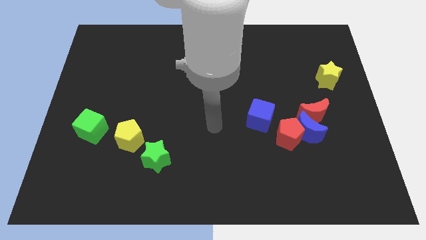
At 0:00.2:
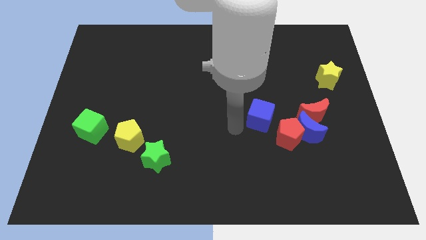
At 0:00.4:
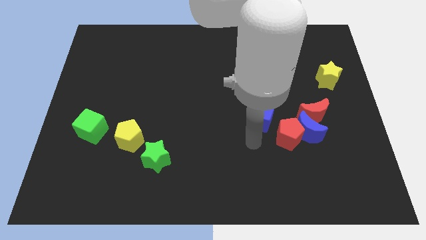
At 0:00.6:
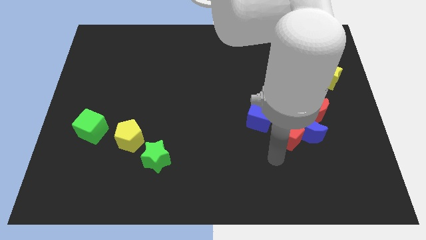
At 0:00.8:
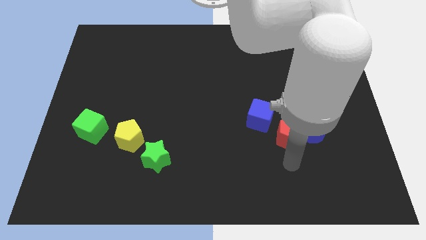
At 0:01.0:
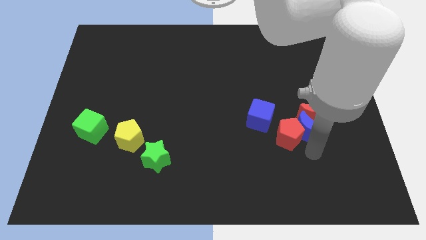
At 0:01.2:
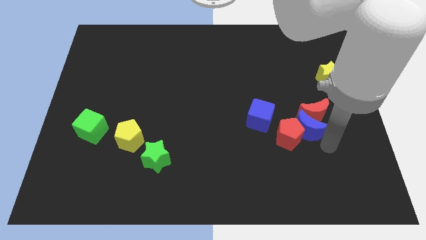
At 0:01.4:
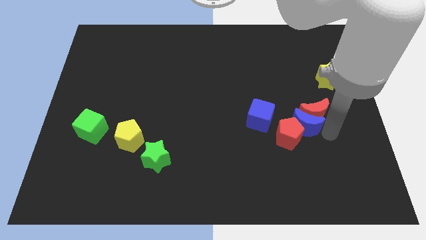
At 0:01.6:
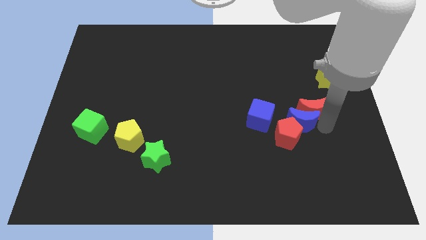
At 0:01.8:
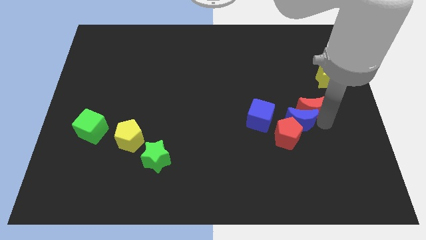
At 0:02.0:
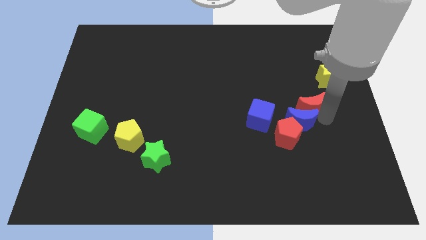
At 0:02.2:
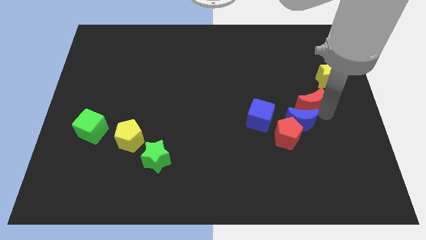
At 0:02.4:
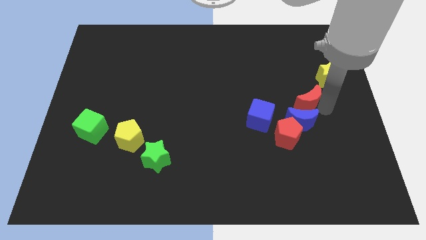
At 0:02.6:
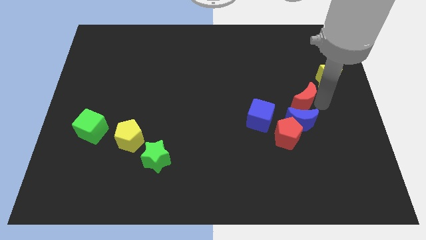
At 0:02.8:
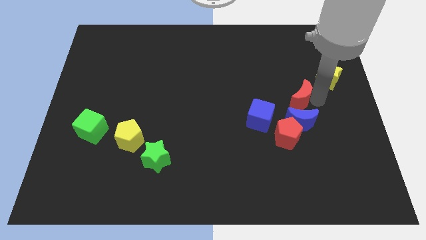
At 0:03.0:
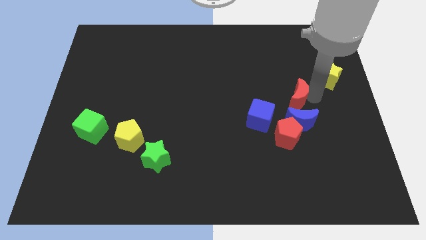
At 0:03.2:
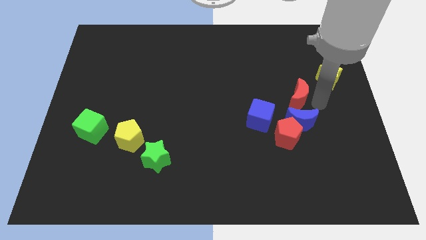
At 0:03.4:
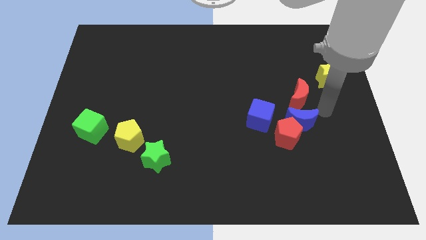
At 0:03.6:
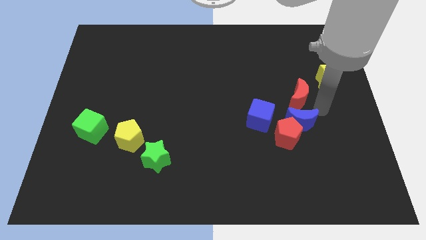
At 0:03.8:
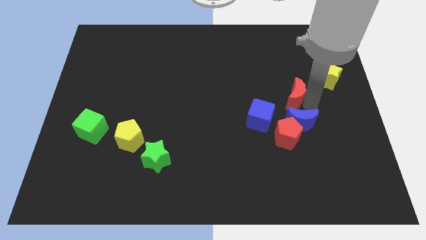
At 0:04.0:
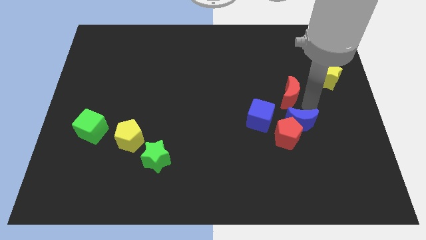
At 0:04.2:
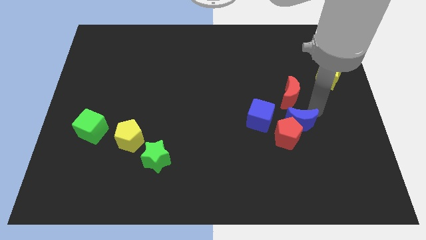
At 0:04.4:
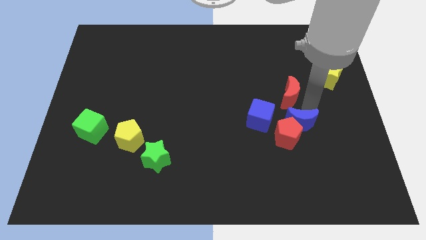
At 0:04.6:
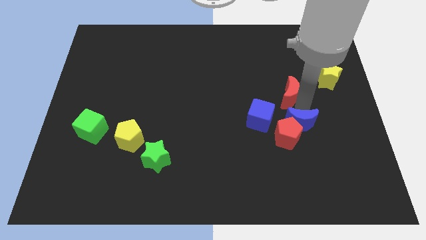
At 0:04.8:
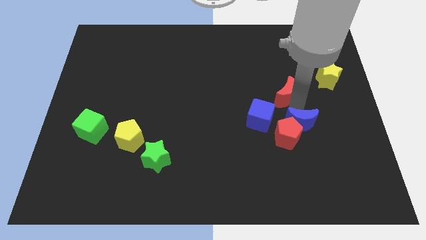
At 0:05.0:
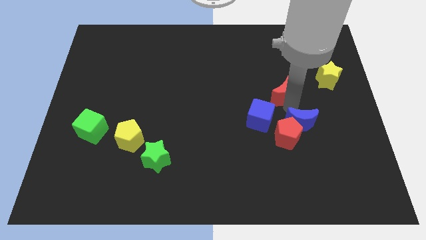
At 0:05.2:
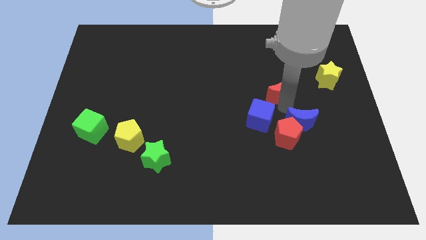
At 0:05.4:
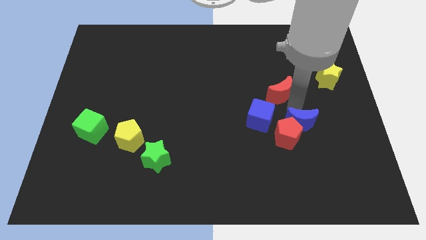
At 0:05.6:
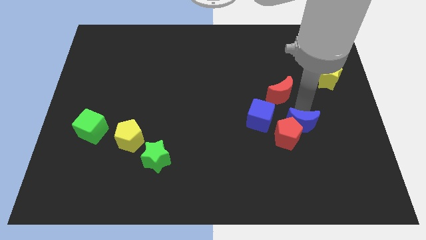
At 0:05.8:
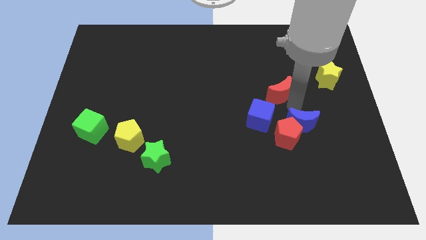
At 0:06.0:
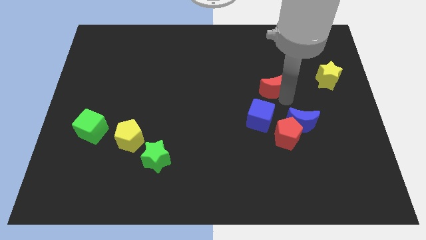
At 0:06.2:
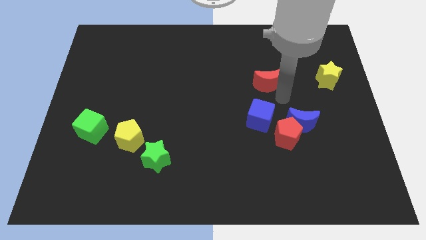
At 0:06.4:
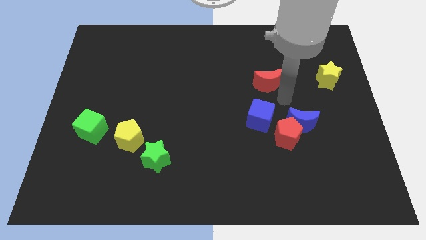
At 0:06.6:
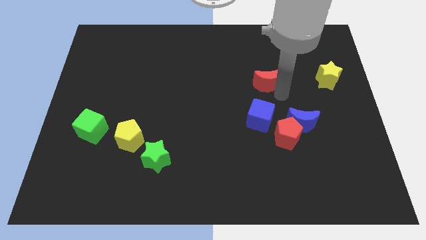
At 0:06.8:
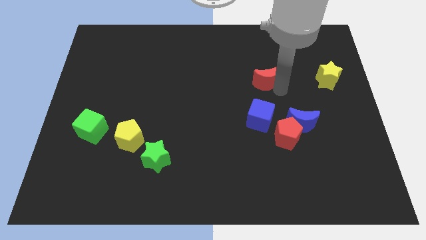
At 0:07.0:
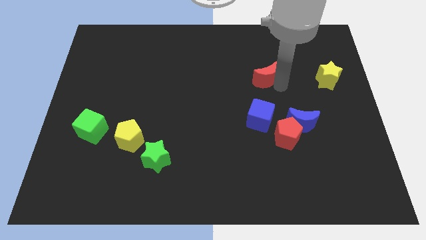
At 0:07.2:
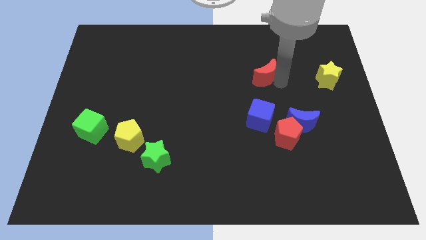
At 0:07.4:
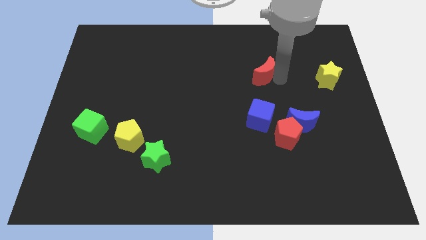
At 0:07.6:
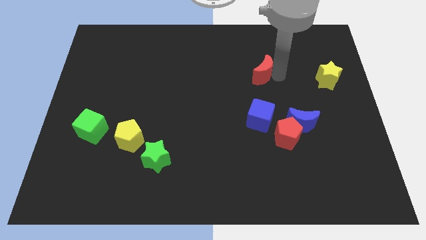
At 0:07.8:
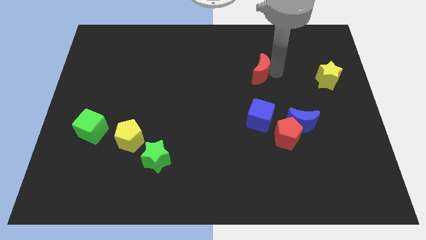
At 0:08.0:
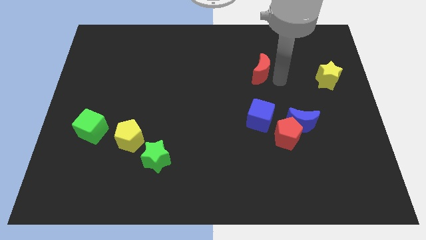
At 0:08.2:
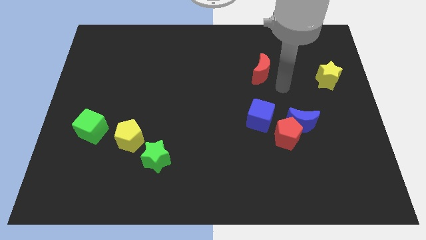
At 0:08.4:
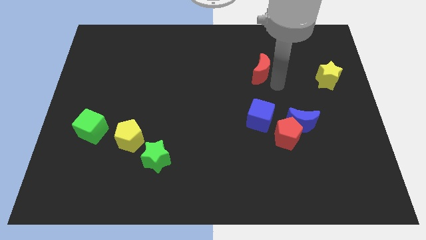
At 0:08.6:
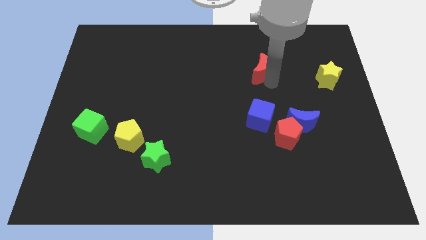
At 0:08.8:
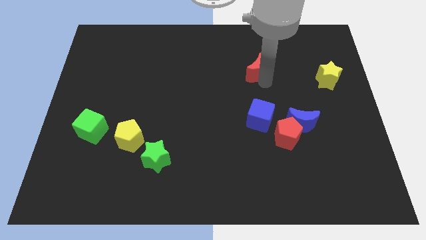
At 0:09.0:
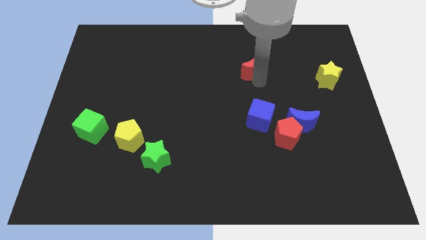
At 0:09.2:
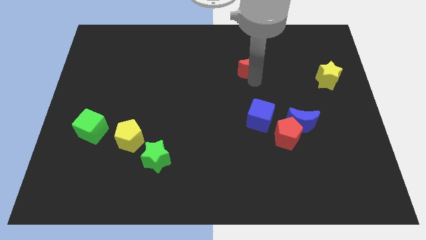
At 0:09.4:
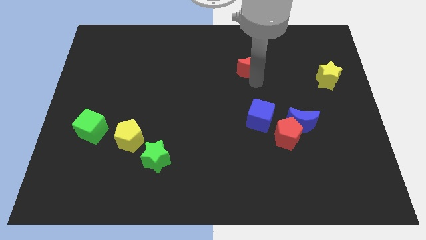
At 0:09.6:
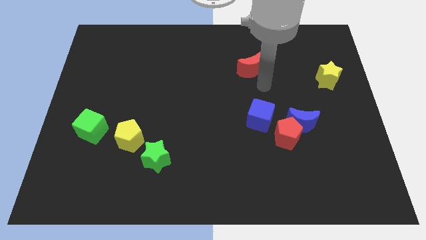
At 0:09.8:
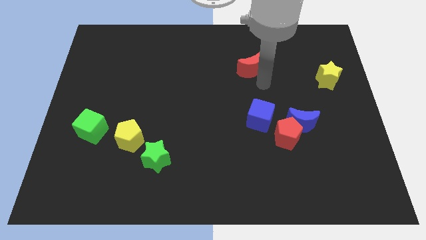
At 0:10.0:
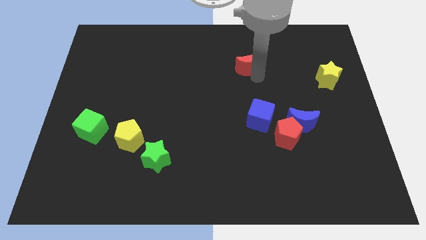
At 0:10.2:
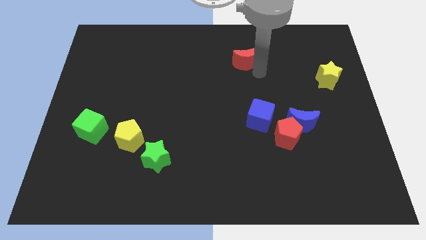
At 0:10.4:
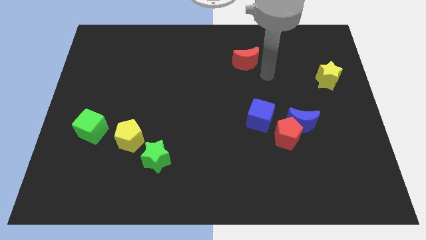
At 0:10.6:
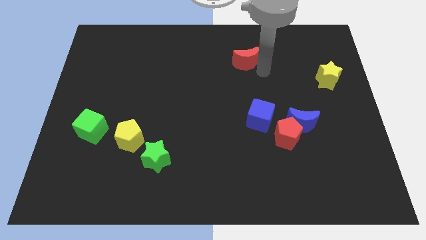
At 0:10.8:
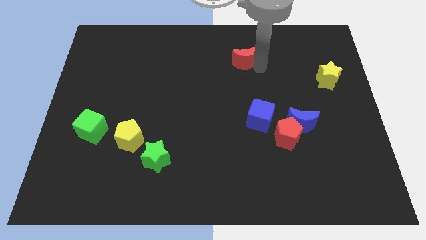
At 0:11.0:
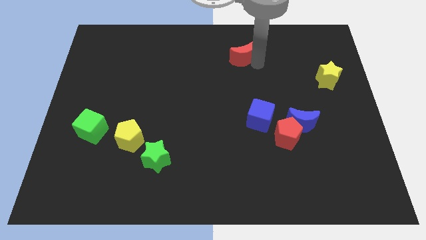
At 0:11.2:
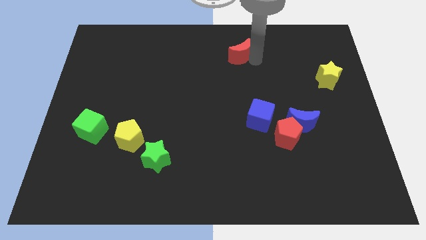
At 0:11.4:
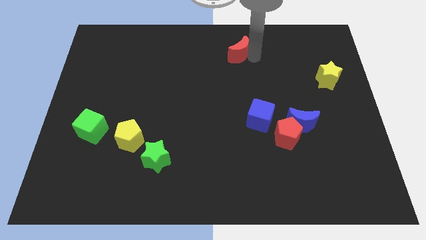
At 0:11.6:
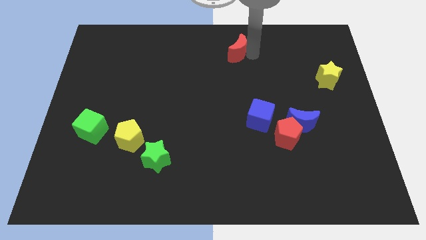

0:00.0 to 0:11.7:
push the red moon to the towards your base

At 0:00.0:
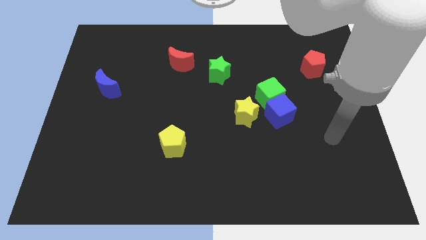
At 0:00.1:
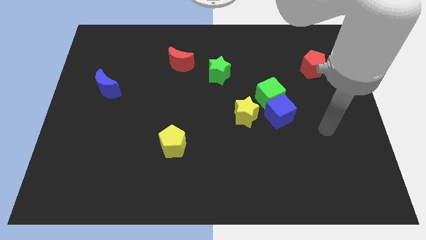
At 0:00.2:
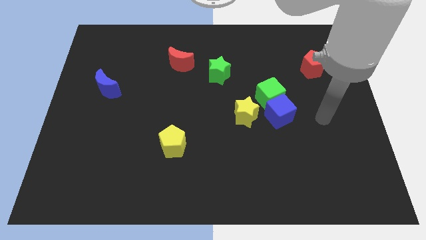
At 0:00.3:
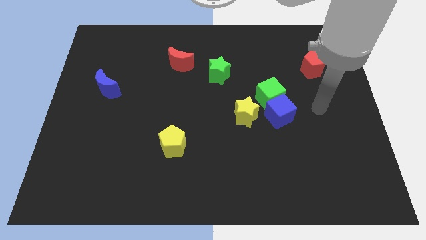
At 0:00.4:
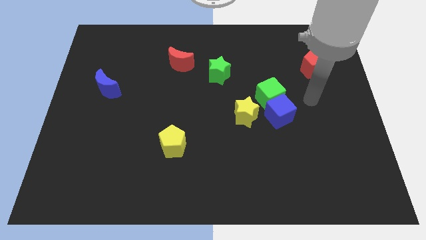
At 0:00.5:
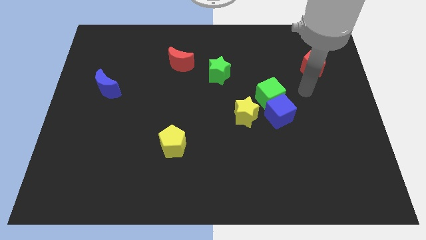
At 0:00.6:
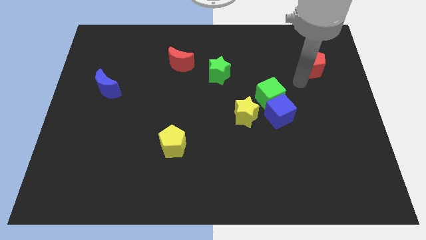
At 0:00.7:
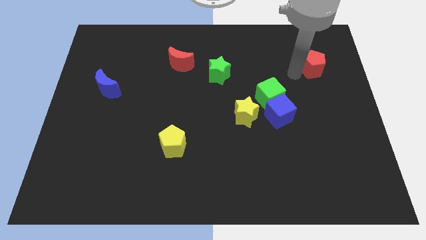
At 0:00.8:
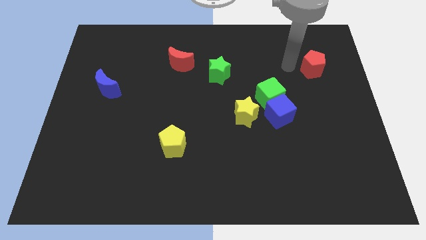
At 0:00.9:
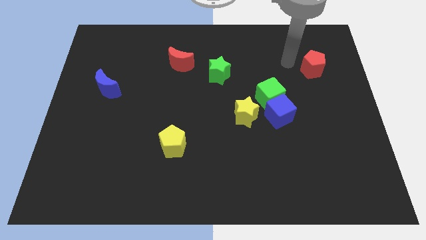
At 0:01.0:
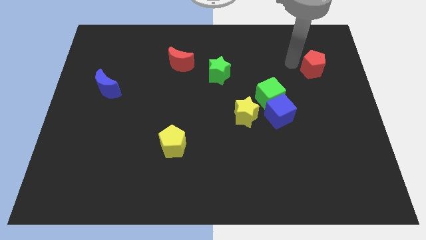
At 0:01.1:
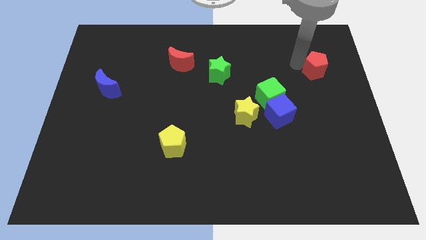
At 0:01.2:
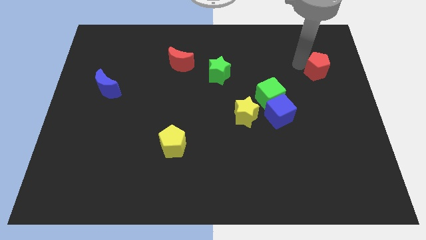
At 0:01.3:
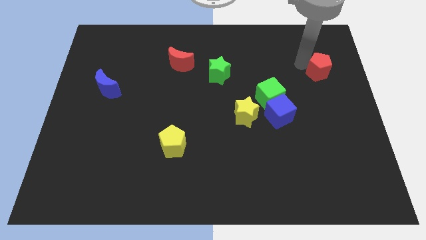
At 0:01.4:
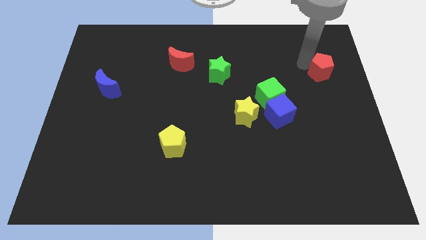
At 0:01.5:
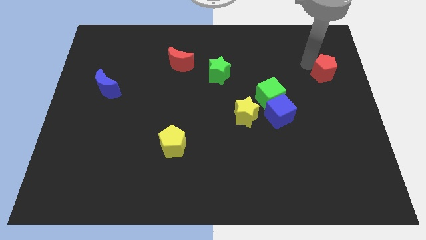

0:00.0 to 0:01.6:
push the red pentagon to the right side of the board
